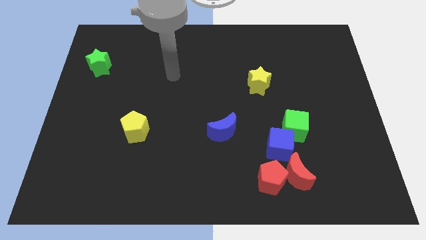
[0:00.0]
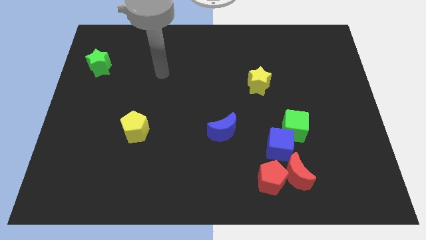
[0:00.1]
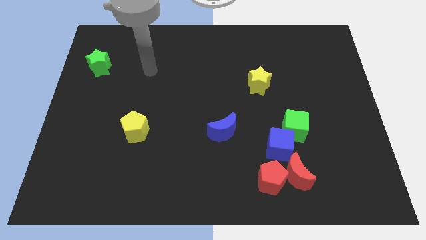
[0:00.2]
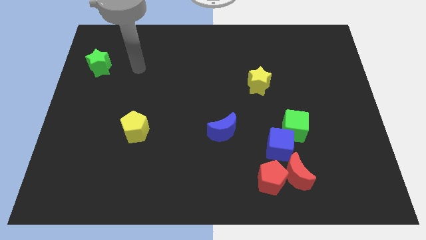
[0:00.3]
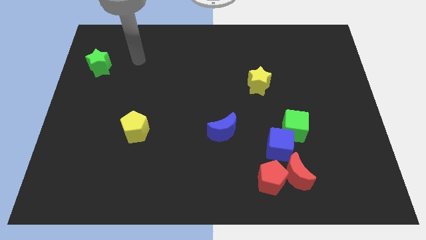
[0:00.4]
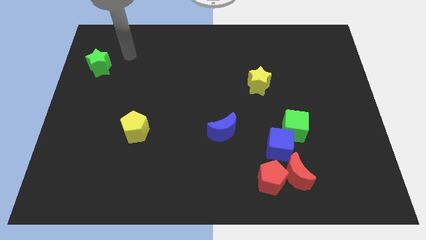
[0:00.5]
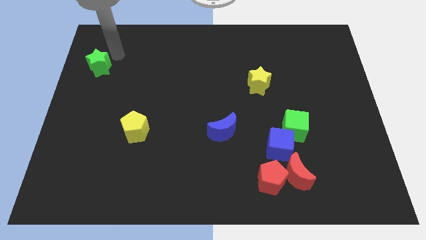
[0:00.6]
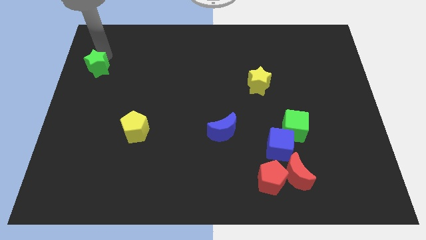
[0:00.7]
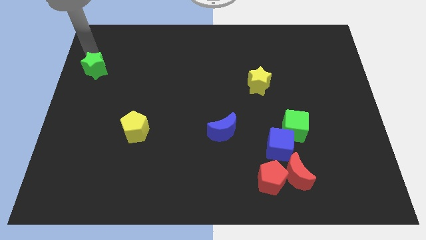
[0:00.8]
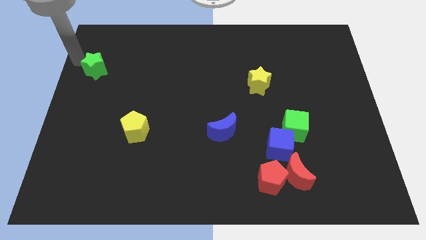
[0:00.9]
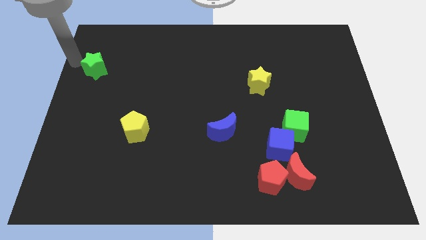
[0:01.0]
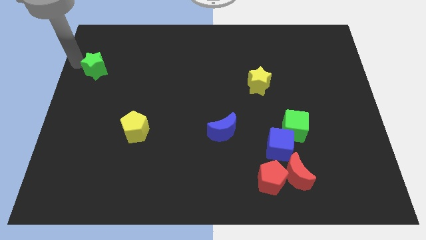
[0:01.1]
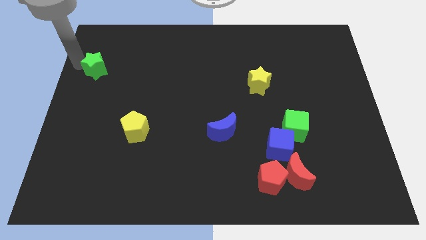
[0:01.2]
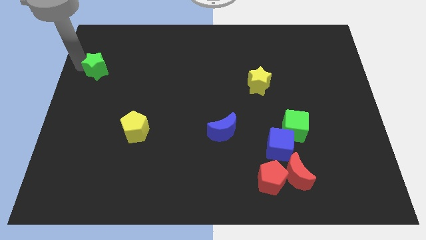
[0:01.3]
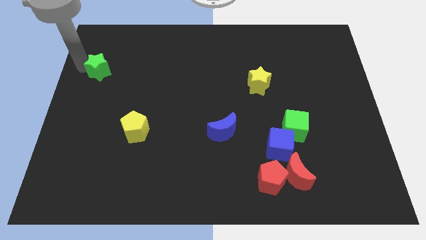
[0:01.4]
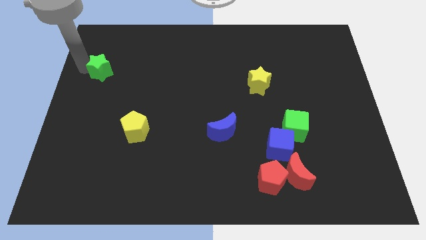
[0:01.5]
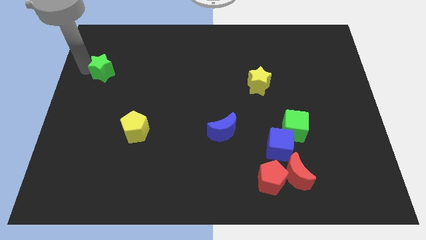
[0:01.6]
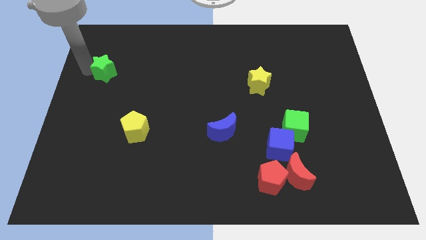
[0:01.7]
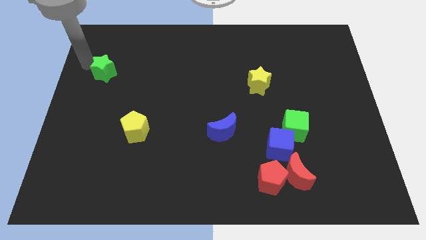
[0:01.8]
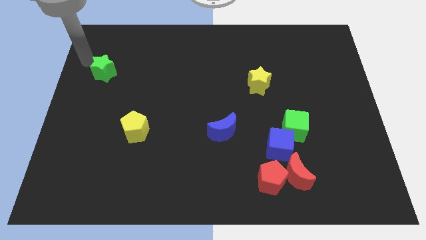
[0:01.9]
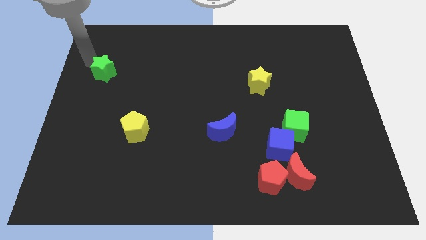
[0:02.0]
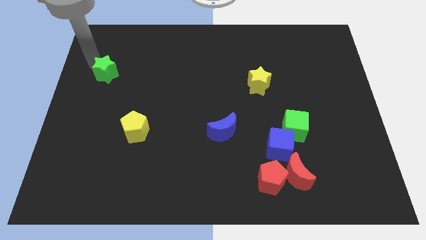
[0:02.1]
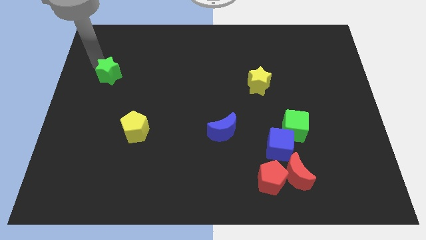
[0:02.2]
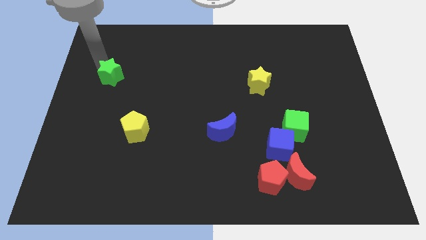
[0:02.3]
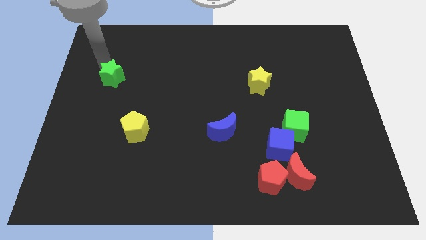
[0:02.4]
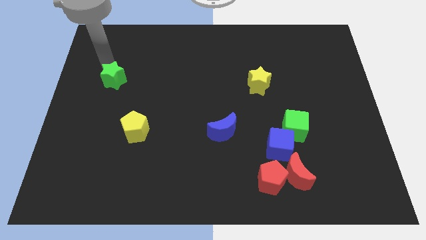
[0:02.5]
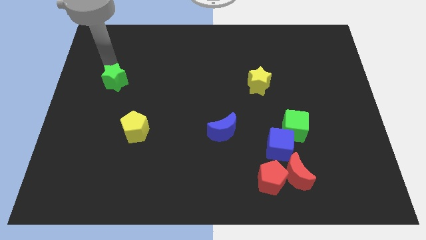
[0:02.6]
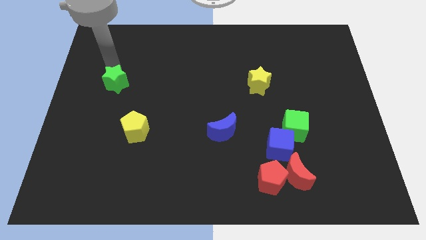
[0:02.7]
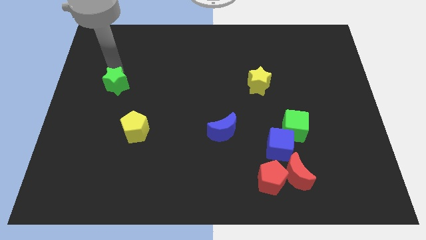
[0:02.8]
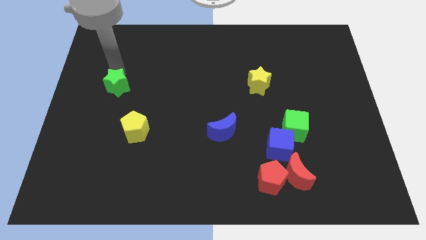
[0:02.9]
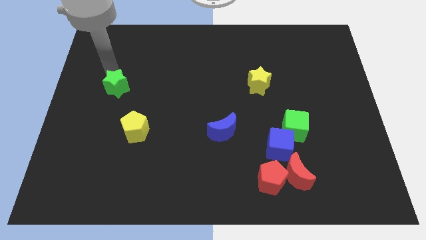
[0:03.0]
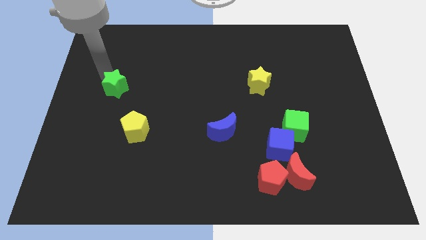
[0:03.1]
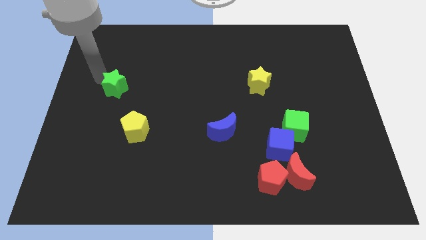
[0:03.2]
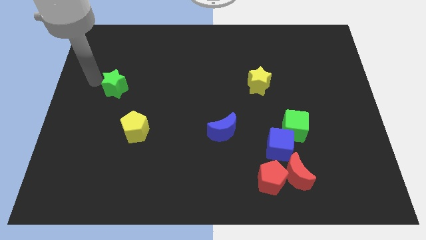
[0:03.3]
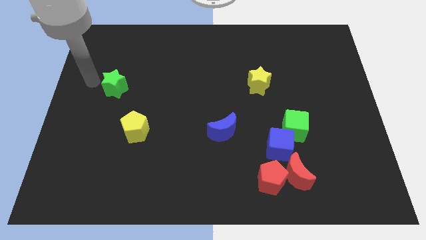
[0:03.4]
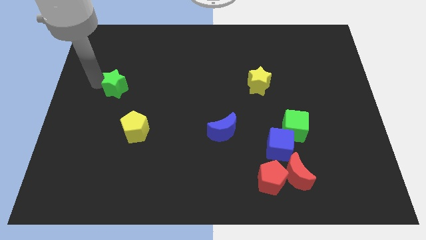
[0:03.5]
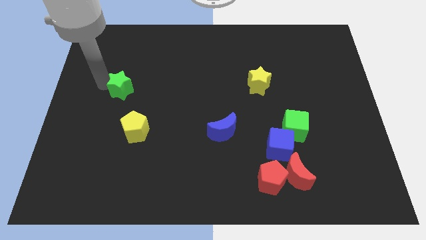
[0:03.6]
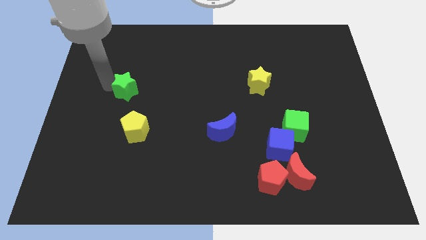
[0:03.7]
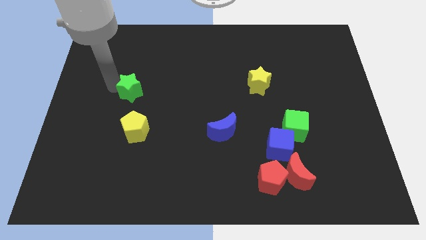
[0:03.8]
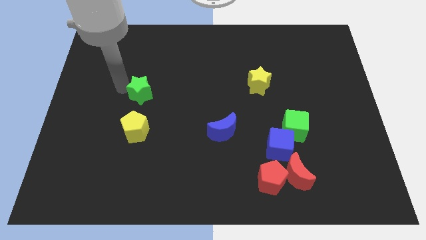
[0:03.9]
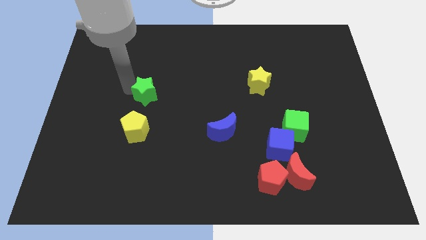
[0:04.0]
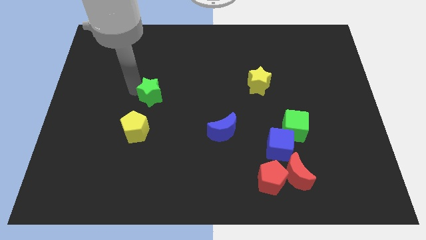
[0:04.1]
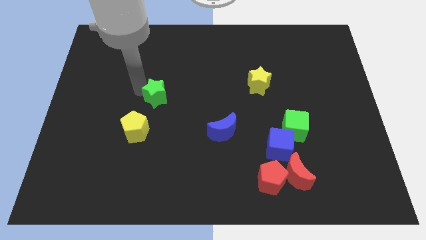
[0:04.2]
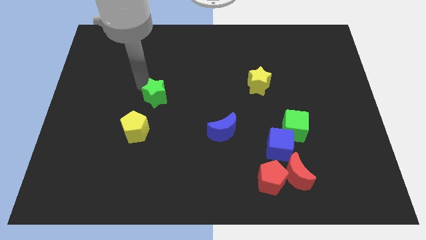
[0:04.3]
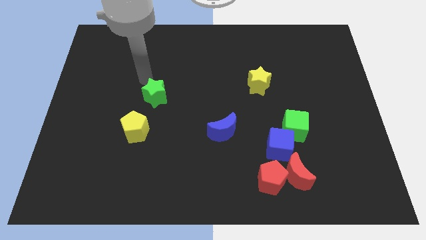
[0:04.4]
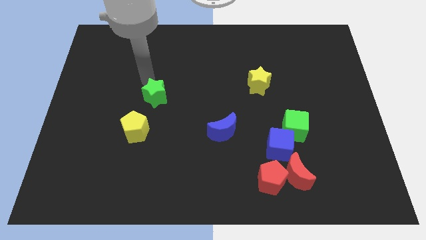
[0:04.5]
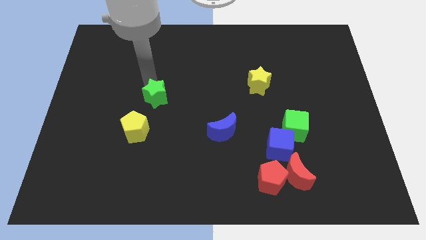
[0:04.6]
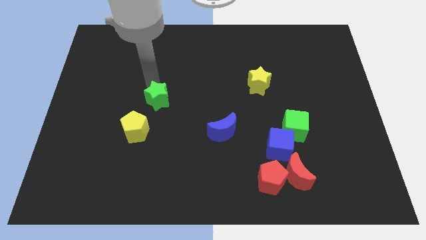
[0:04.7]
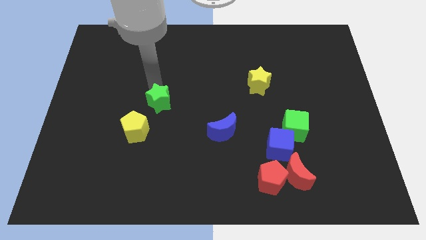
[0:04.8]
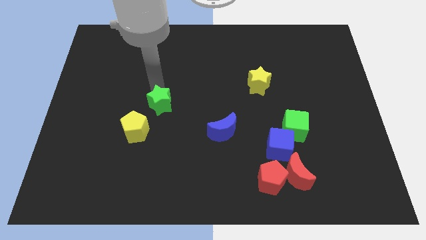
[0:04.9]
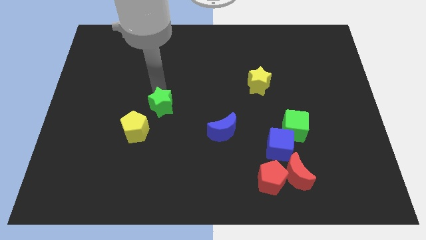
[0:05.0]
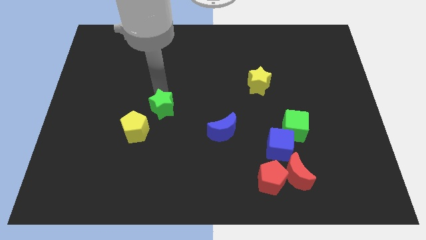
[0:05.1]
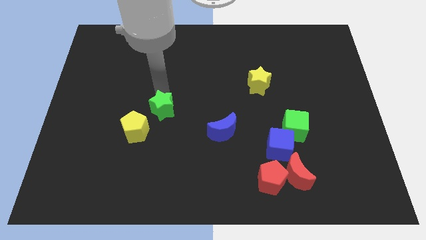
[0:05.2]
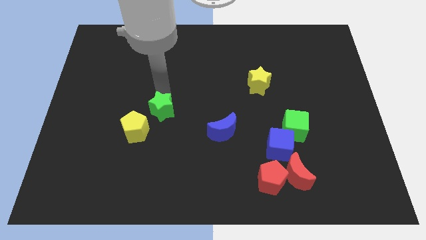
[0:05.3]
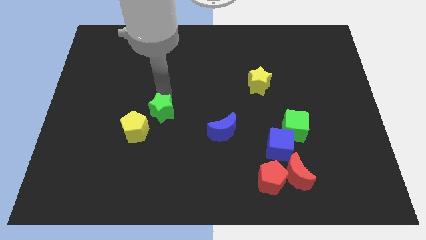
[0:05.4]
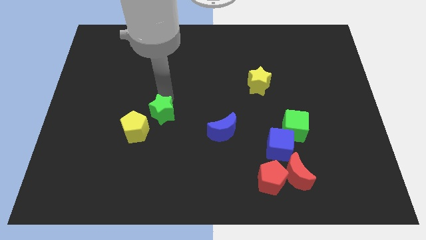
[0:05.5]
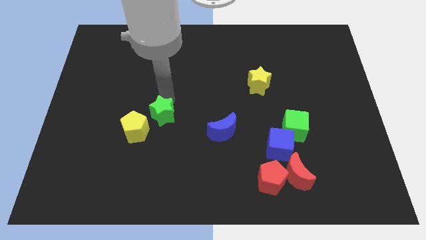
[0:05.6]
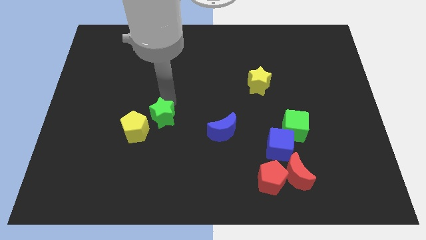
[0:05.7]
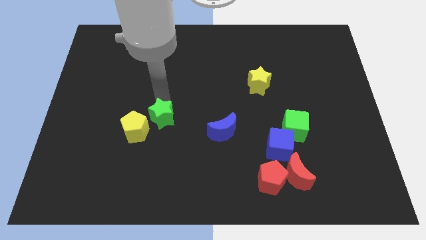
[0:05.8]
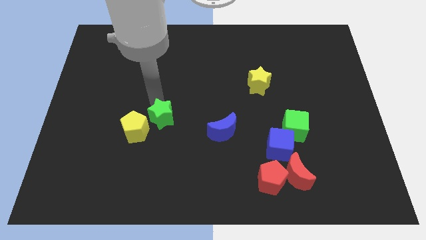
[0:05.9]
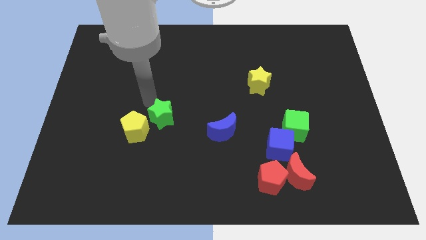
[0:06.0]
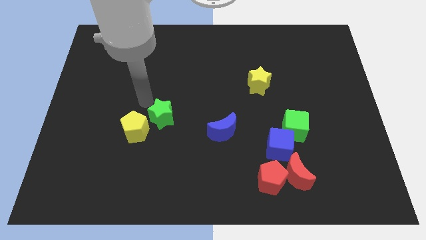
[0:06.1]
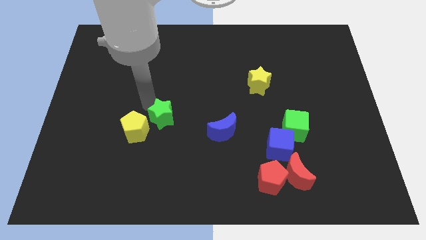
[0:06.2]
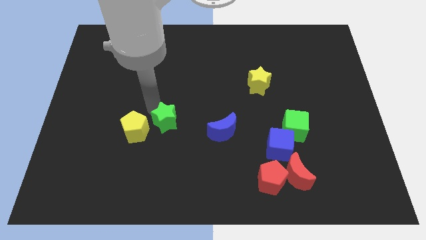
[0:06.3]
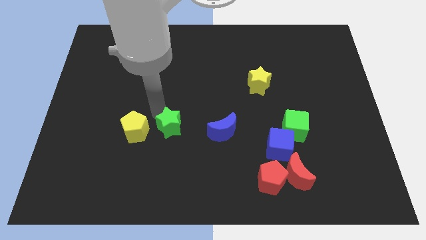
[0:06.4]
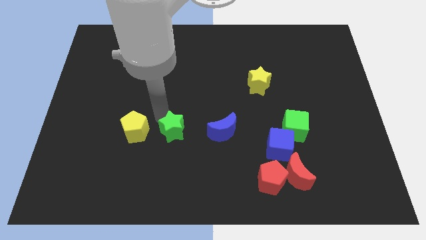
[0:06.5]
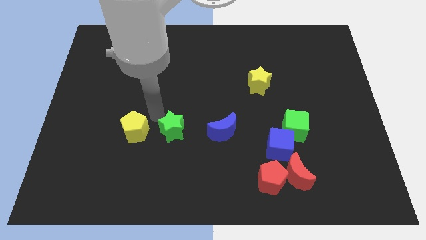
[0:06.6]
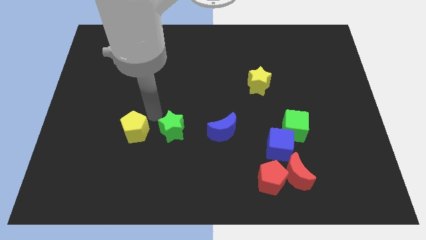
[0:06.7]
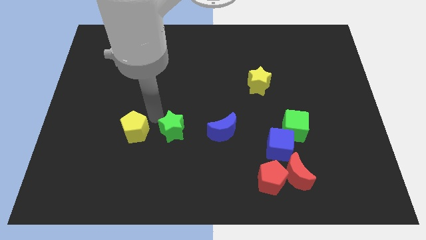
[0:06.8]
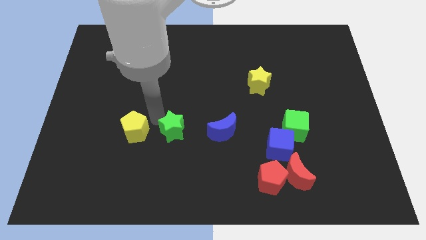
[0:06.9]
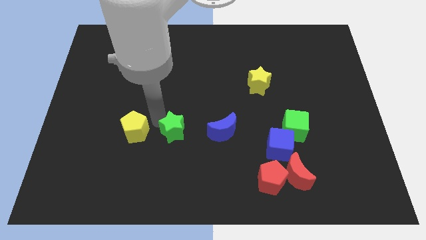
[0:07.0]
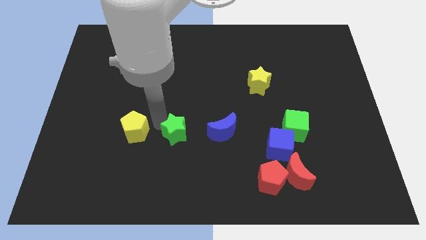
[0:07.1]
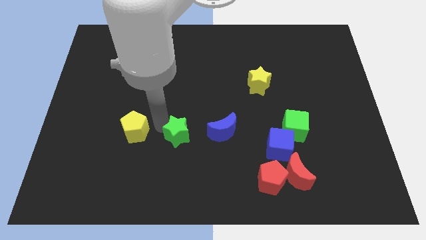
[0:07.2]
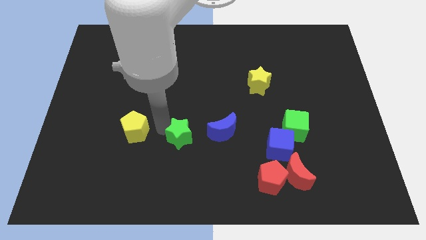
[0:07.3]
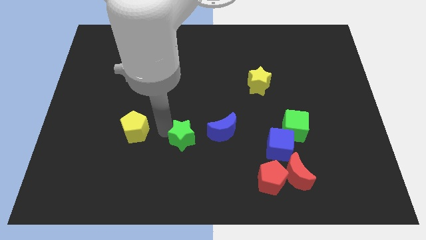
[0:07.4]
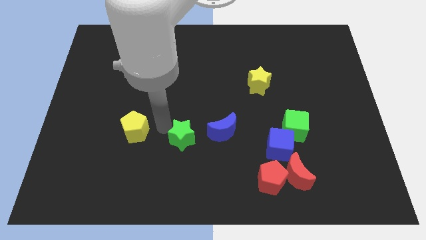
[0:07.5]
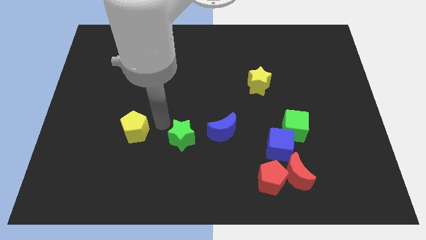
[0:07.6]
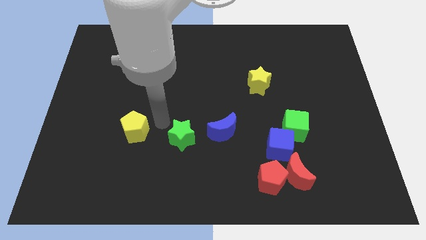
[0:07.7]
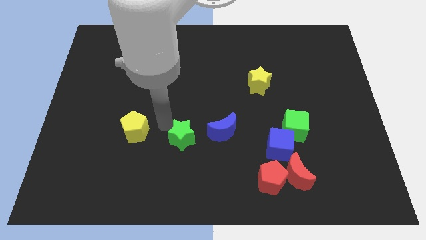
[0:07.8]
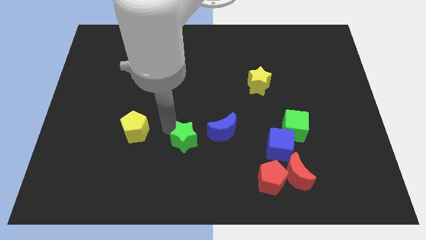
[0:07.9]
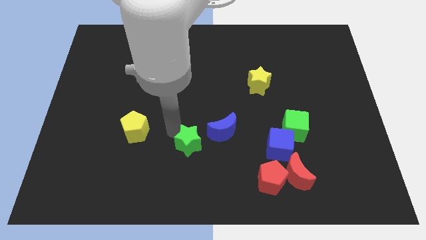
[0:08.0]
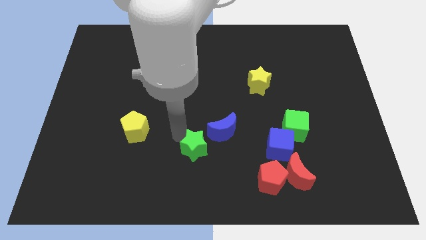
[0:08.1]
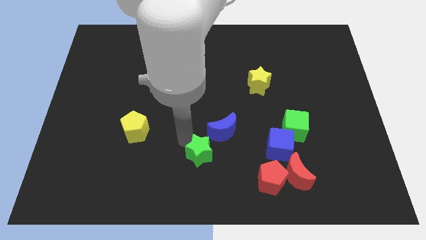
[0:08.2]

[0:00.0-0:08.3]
push the green star to the bottom side of the blue moon
